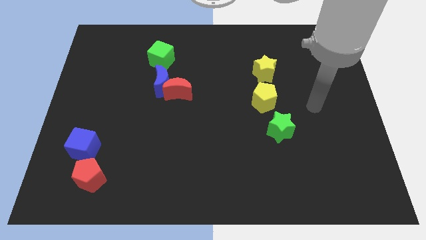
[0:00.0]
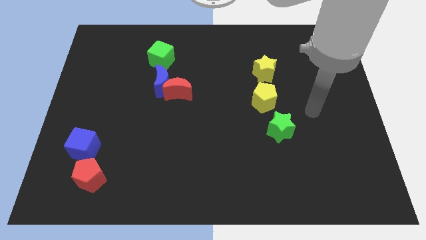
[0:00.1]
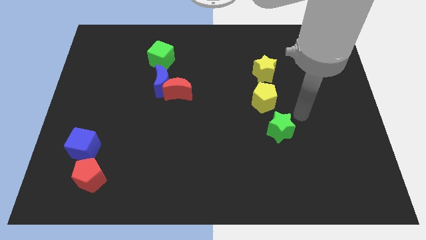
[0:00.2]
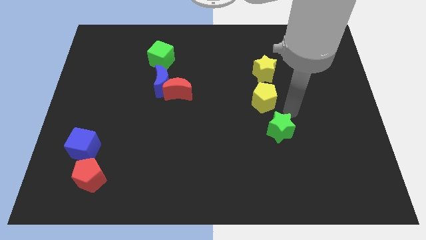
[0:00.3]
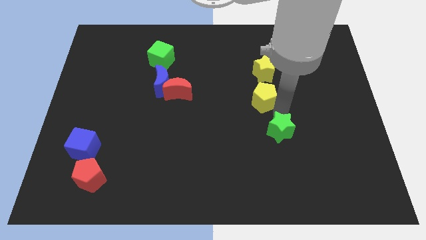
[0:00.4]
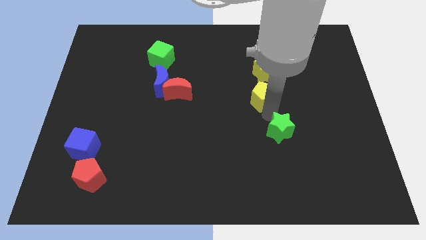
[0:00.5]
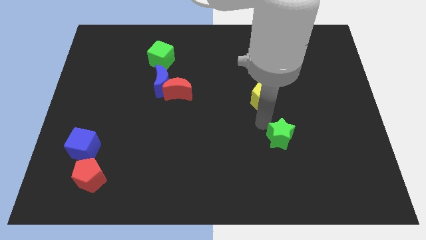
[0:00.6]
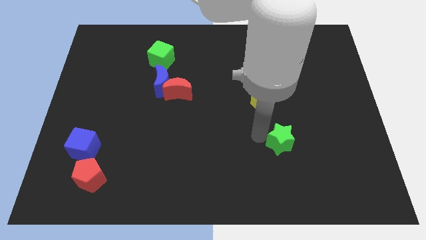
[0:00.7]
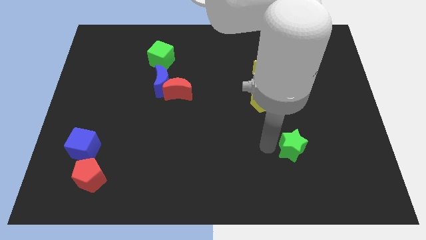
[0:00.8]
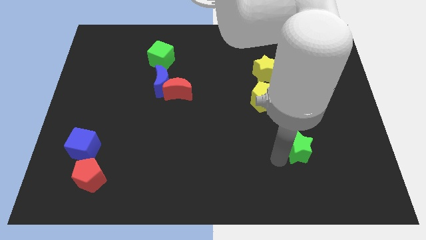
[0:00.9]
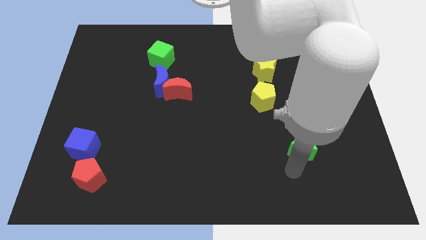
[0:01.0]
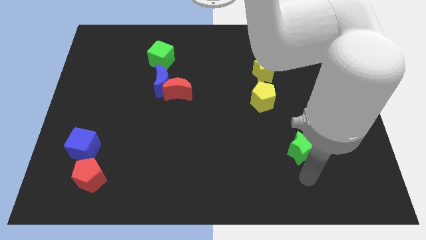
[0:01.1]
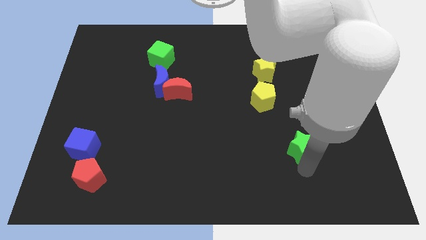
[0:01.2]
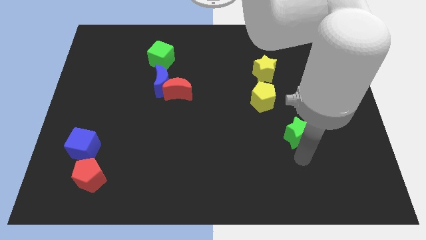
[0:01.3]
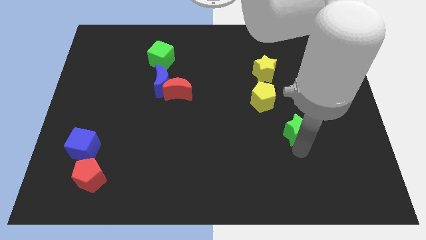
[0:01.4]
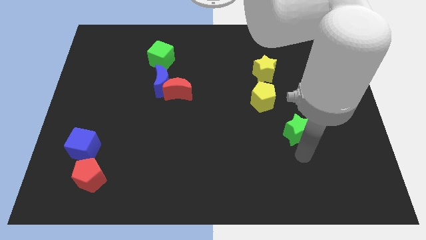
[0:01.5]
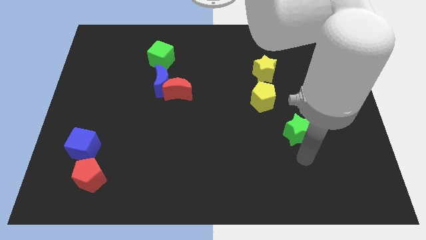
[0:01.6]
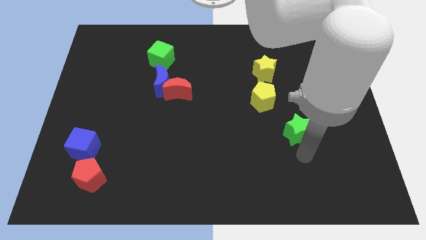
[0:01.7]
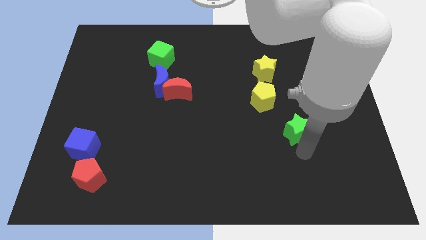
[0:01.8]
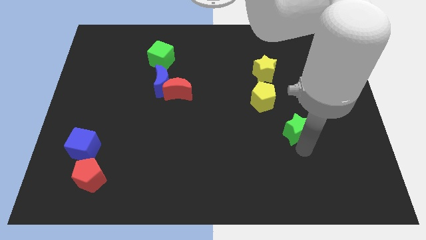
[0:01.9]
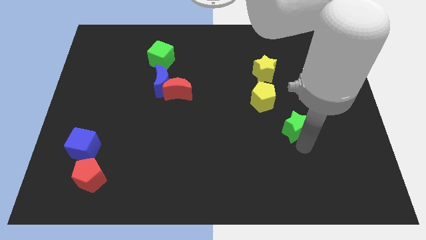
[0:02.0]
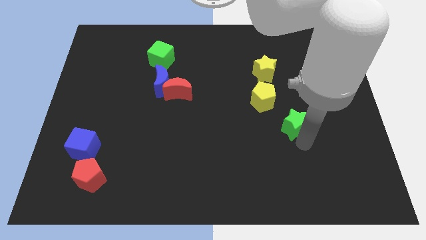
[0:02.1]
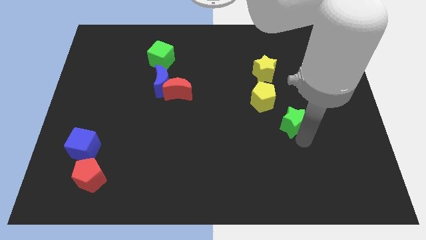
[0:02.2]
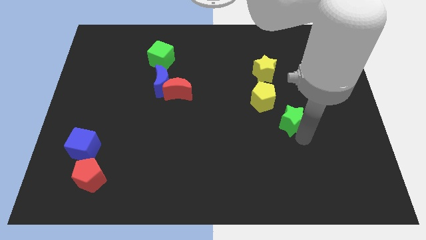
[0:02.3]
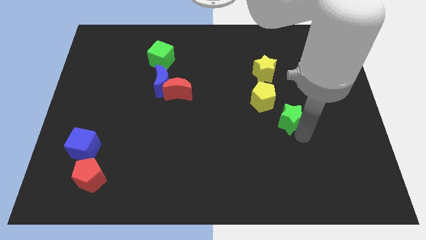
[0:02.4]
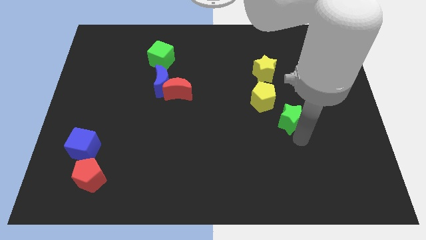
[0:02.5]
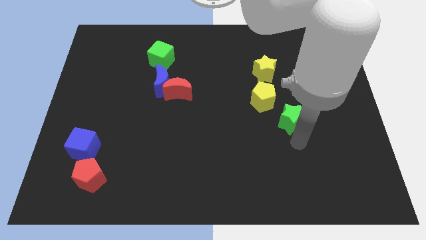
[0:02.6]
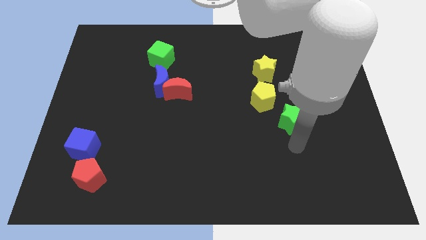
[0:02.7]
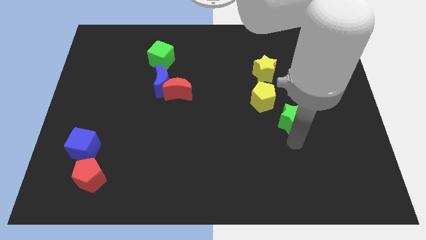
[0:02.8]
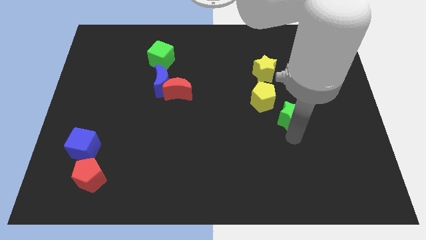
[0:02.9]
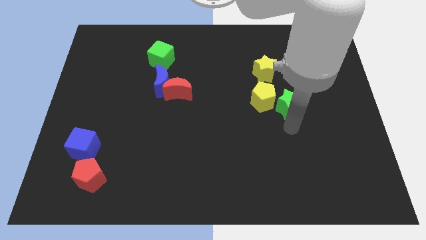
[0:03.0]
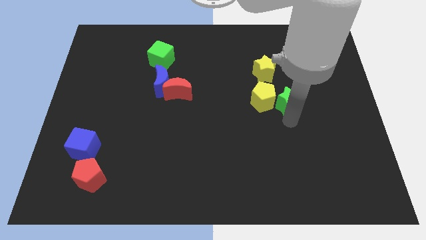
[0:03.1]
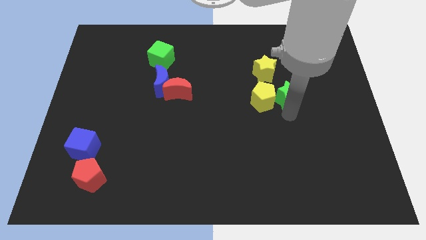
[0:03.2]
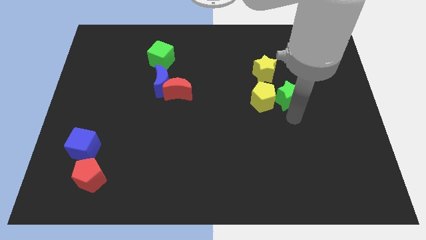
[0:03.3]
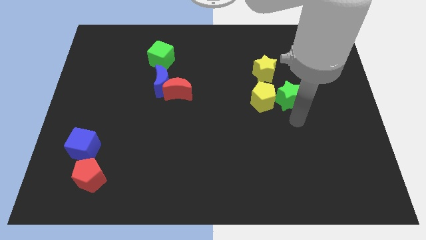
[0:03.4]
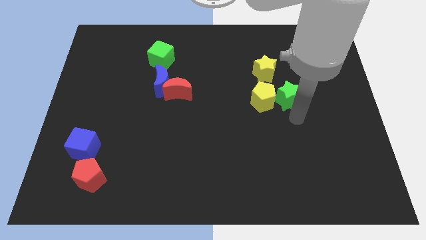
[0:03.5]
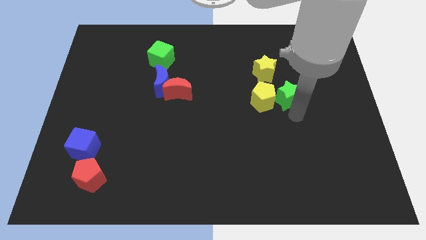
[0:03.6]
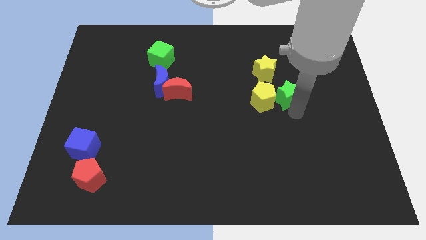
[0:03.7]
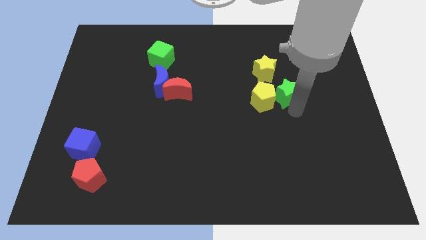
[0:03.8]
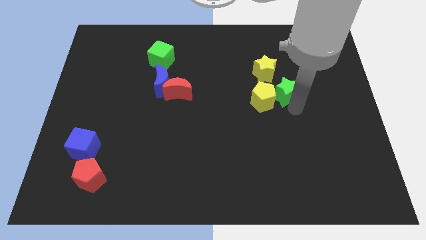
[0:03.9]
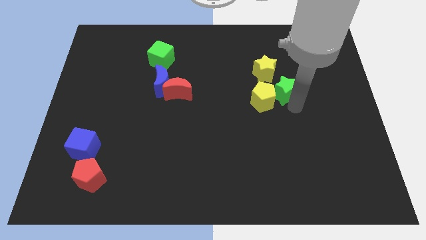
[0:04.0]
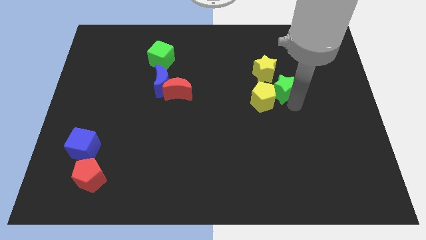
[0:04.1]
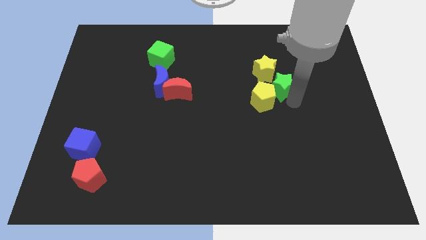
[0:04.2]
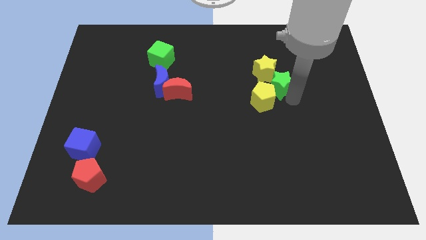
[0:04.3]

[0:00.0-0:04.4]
push the green star to the yellow star

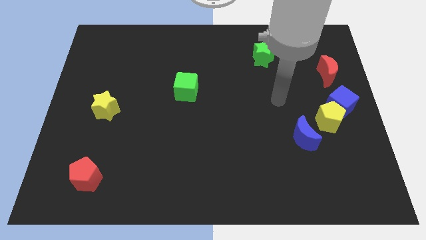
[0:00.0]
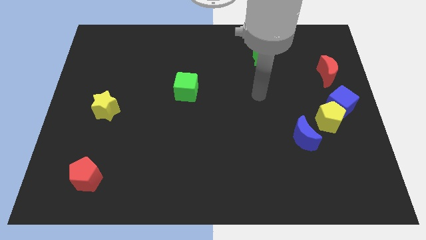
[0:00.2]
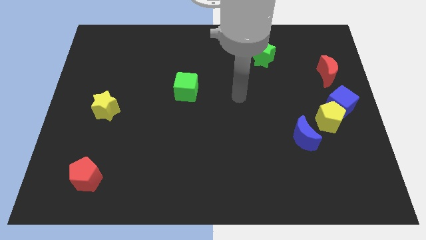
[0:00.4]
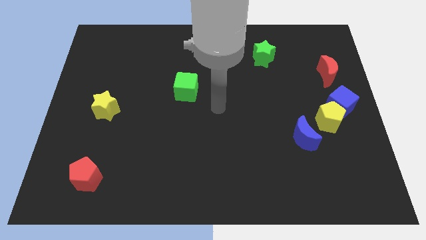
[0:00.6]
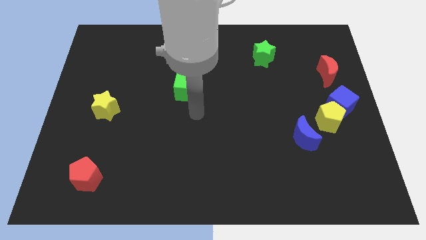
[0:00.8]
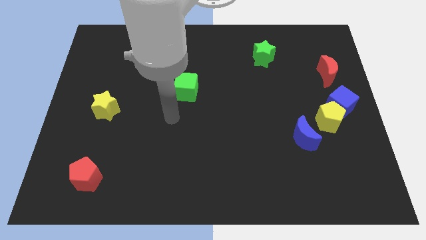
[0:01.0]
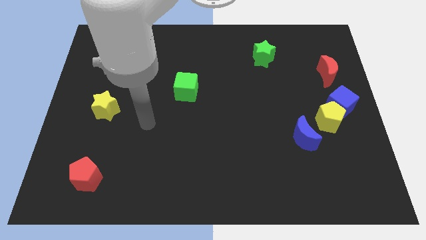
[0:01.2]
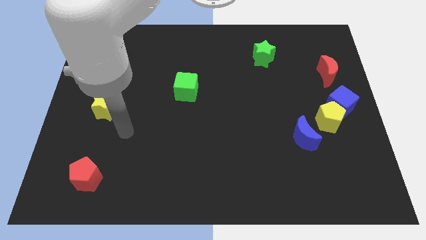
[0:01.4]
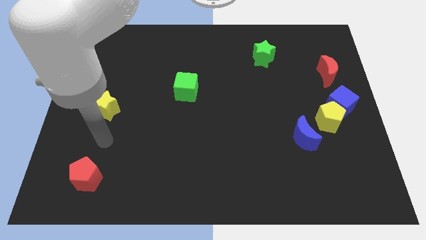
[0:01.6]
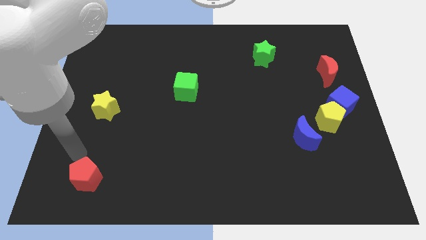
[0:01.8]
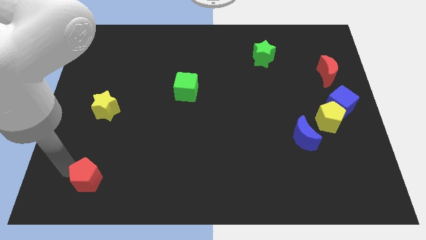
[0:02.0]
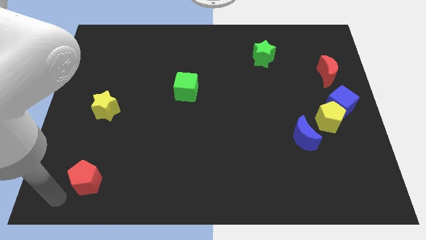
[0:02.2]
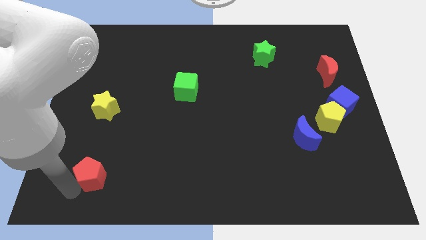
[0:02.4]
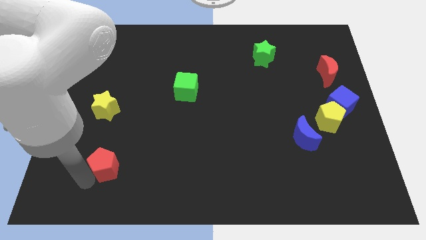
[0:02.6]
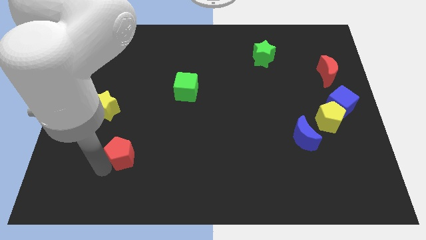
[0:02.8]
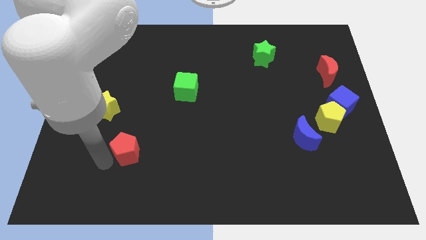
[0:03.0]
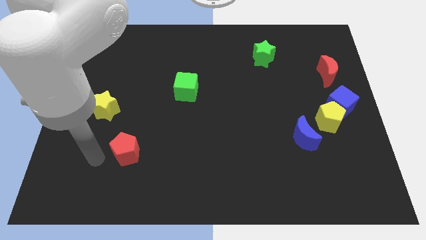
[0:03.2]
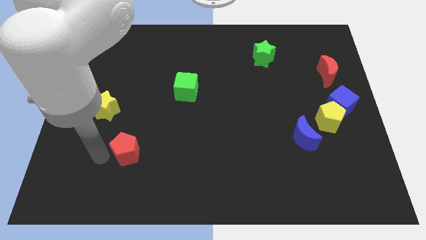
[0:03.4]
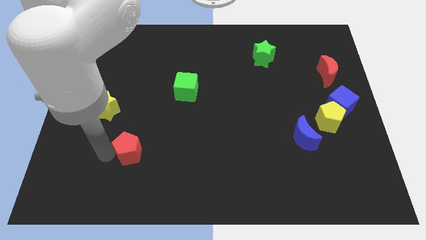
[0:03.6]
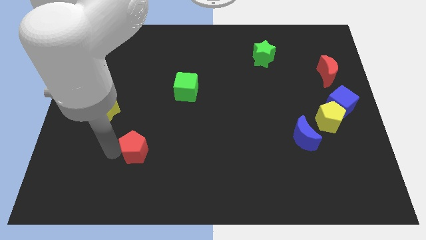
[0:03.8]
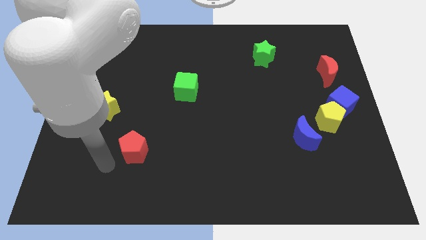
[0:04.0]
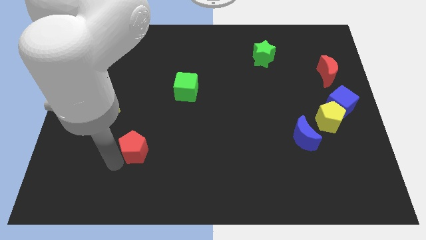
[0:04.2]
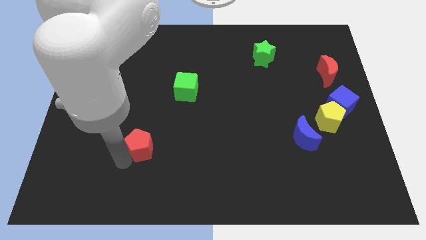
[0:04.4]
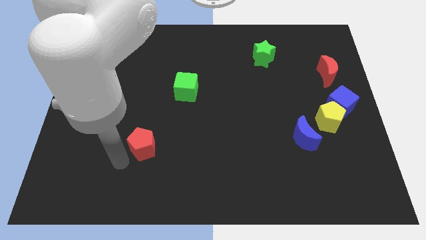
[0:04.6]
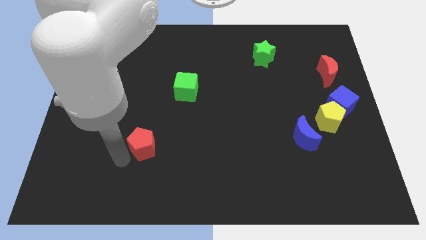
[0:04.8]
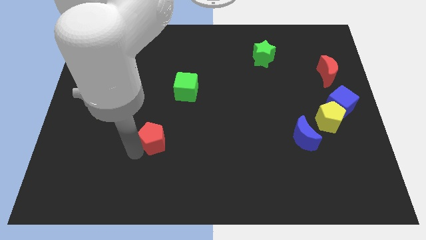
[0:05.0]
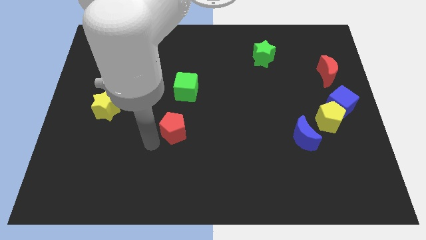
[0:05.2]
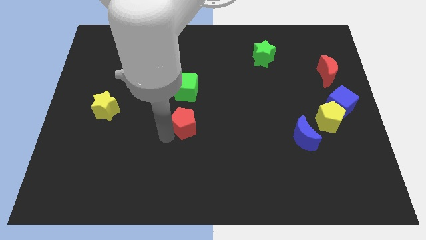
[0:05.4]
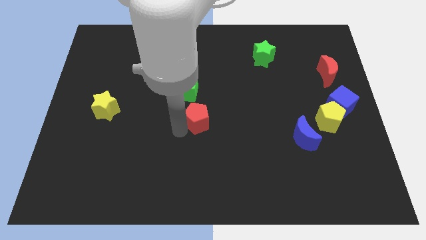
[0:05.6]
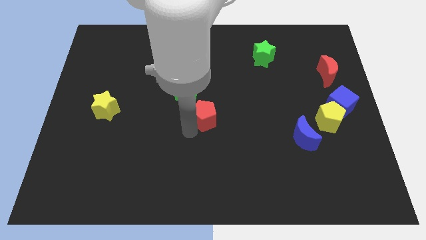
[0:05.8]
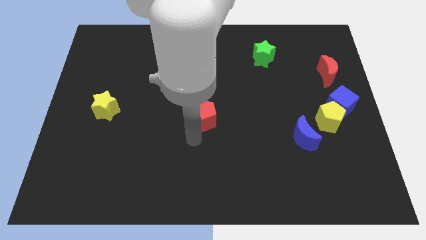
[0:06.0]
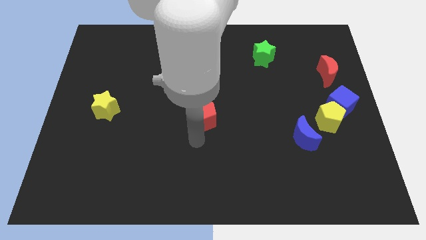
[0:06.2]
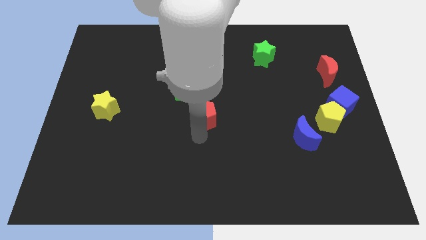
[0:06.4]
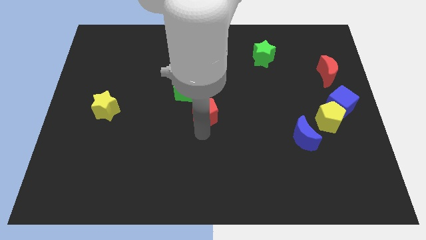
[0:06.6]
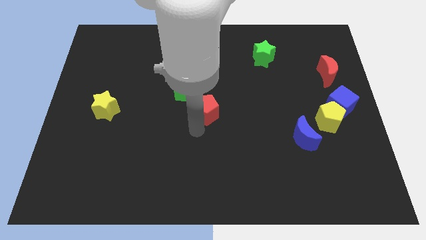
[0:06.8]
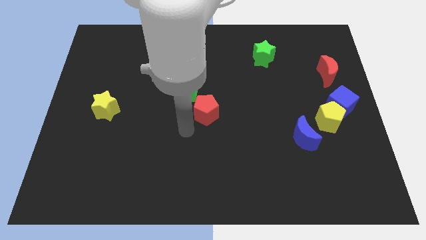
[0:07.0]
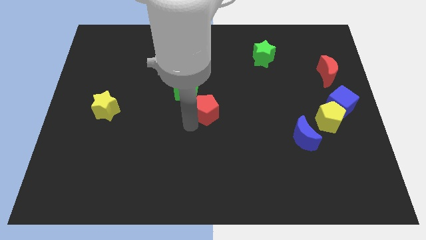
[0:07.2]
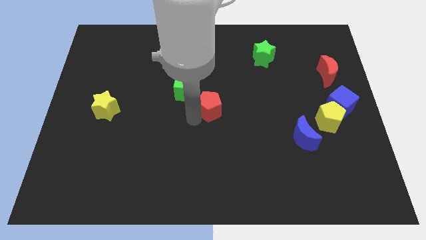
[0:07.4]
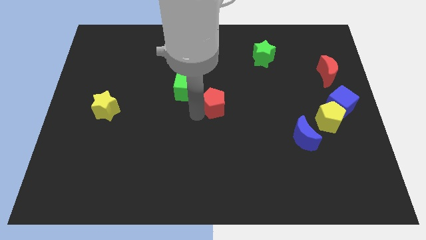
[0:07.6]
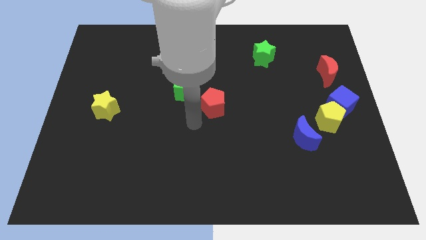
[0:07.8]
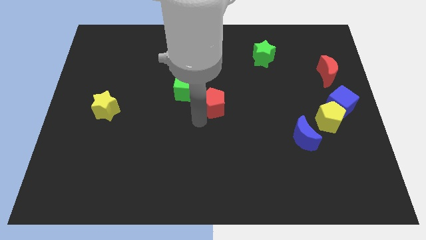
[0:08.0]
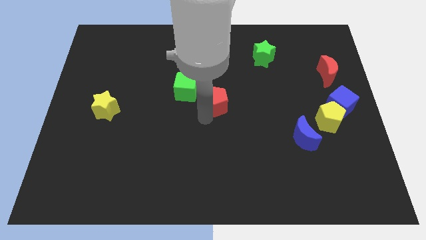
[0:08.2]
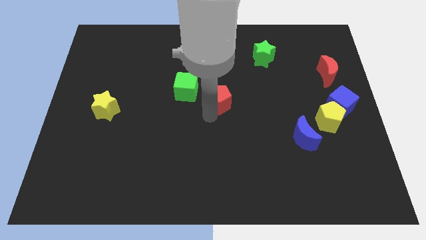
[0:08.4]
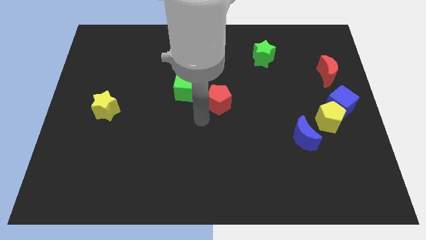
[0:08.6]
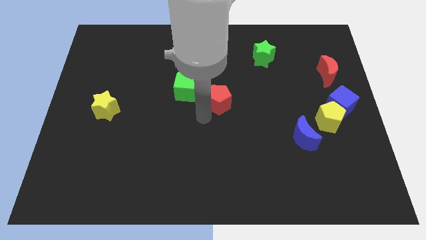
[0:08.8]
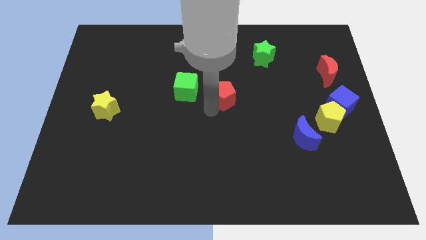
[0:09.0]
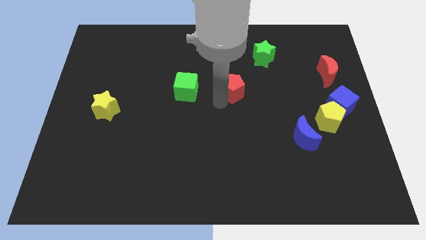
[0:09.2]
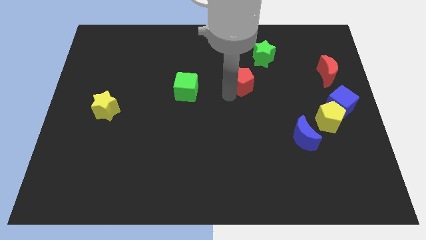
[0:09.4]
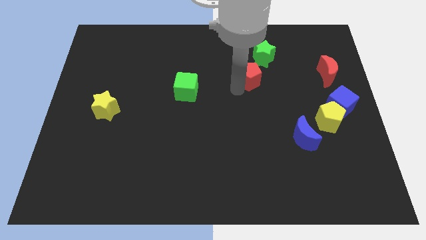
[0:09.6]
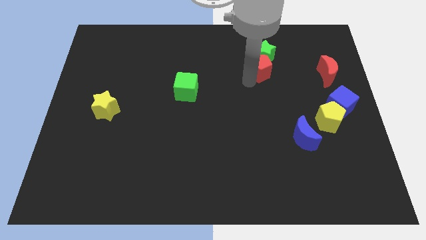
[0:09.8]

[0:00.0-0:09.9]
put the red pentagon next to the green star
